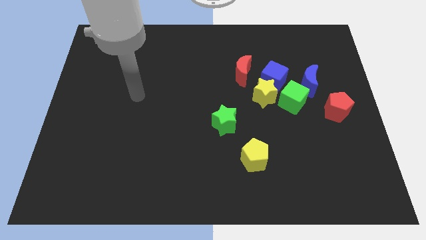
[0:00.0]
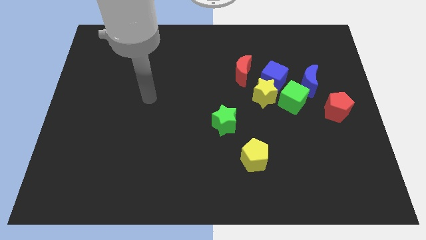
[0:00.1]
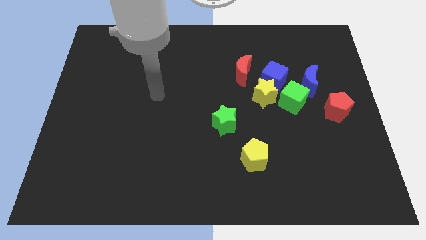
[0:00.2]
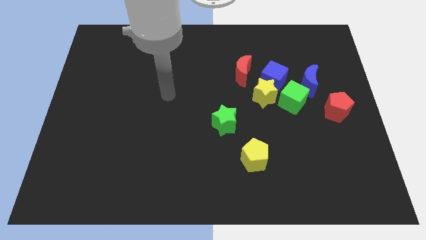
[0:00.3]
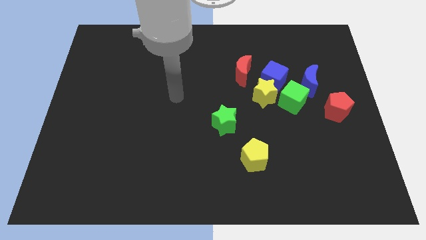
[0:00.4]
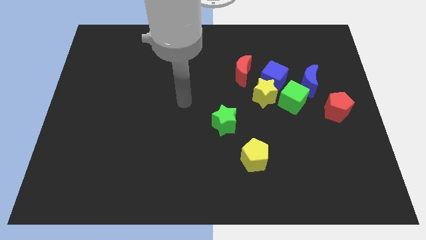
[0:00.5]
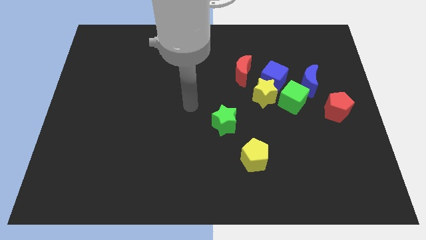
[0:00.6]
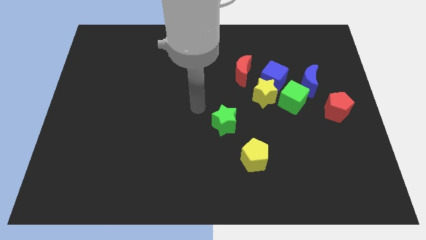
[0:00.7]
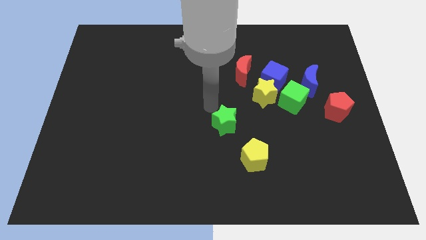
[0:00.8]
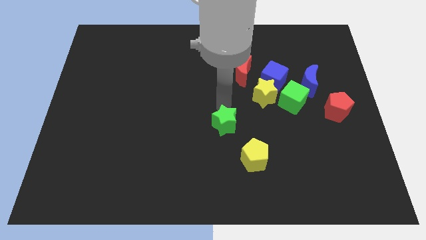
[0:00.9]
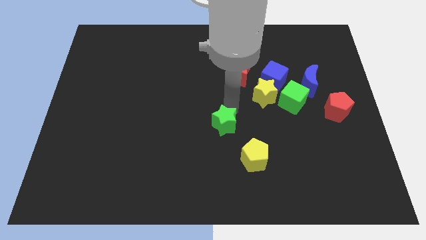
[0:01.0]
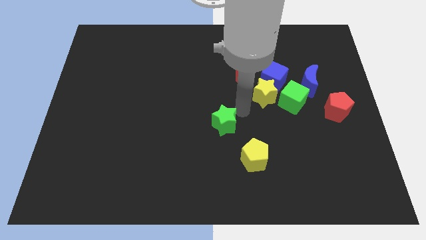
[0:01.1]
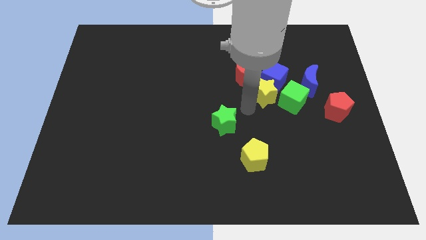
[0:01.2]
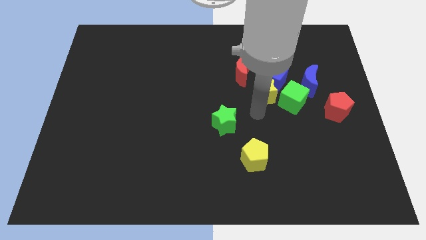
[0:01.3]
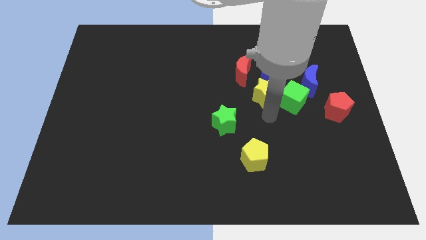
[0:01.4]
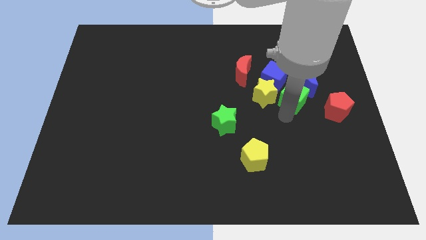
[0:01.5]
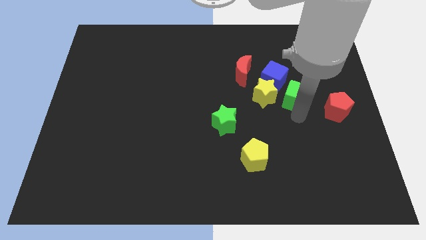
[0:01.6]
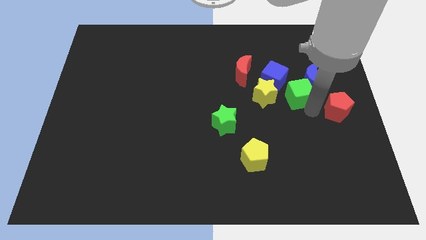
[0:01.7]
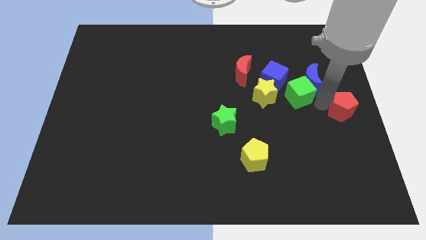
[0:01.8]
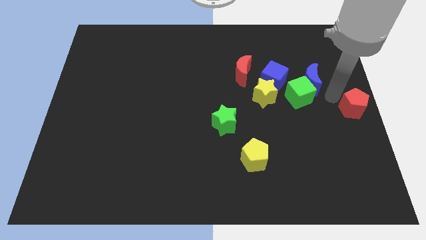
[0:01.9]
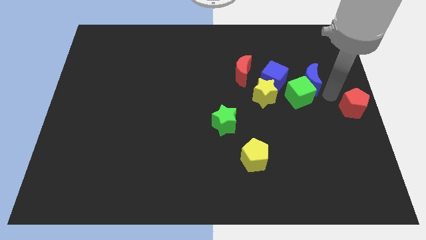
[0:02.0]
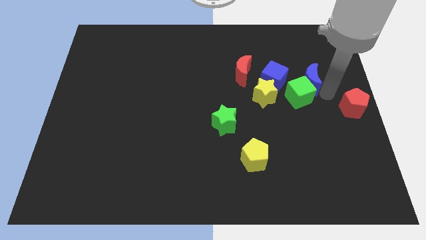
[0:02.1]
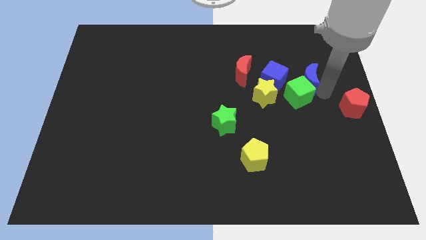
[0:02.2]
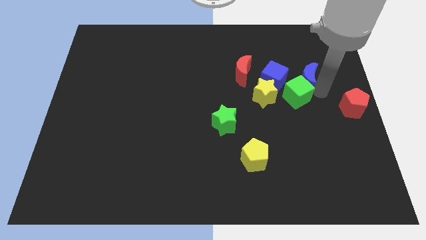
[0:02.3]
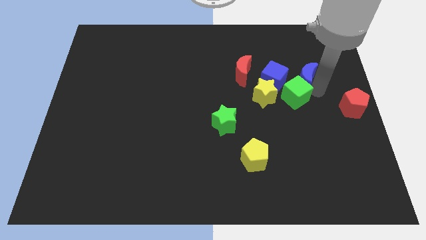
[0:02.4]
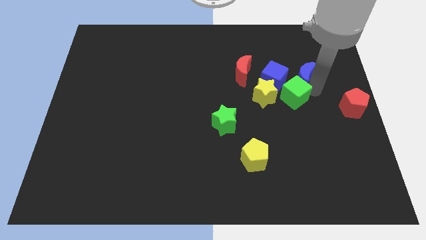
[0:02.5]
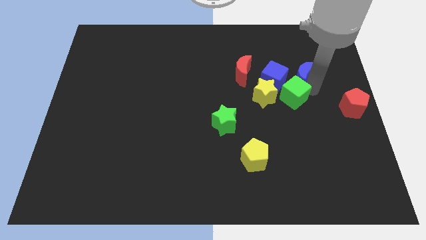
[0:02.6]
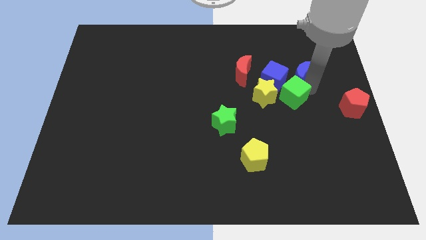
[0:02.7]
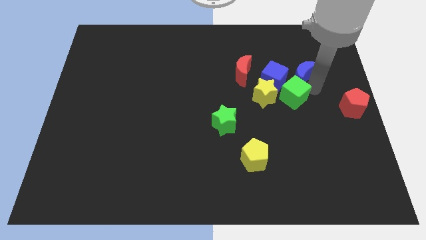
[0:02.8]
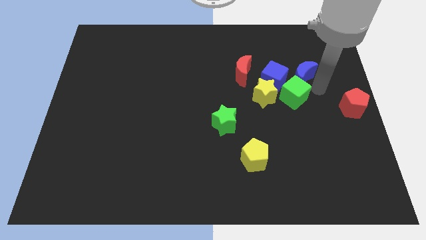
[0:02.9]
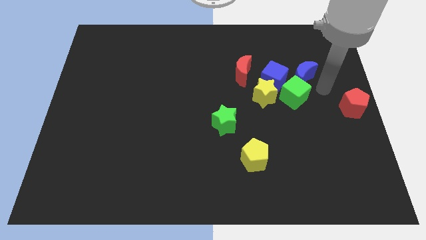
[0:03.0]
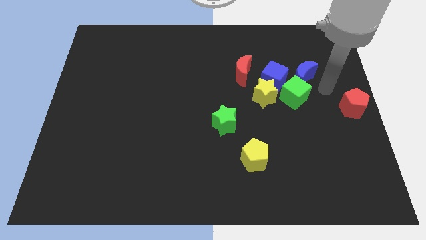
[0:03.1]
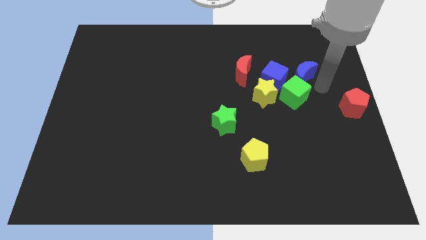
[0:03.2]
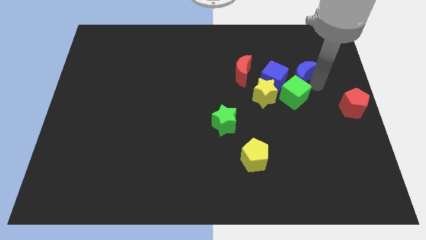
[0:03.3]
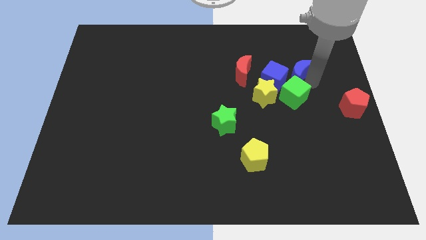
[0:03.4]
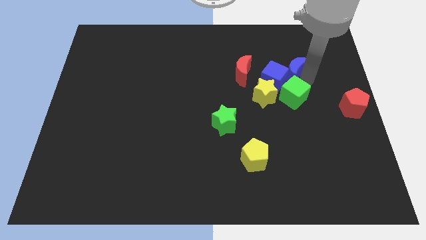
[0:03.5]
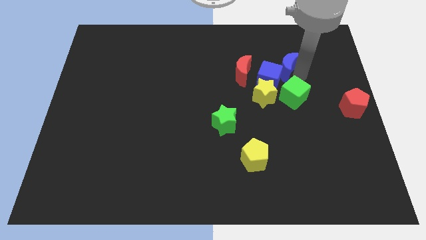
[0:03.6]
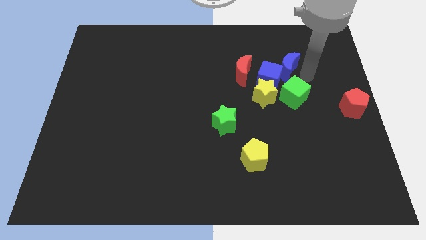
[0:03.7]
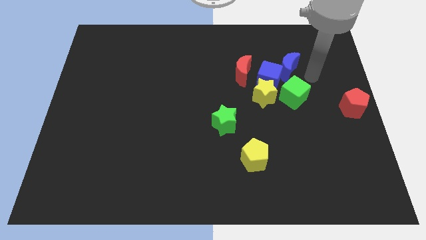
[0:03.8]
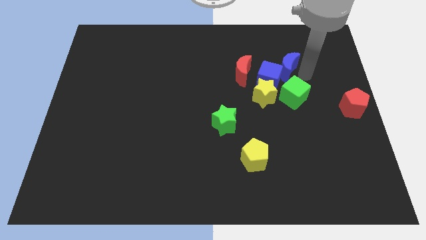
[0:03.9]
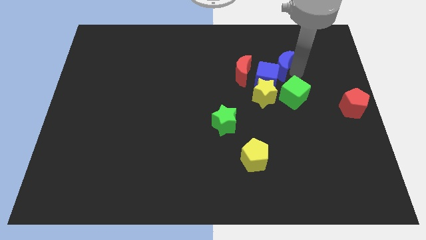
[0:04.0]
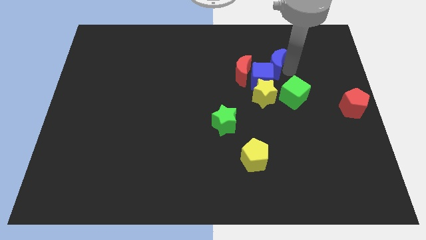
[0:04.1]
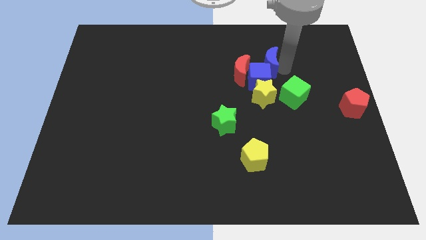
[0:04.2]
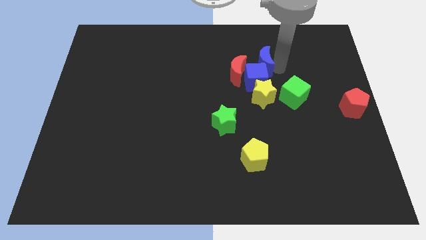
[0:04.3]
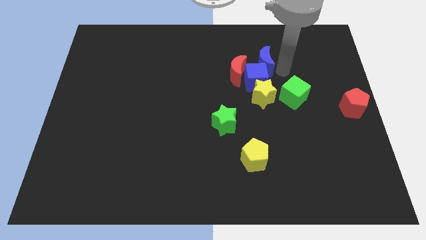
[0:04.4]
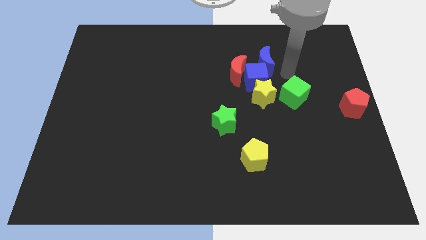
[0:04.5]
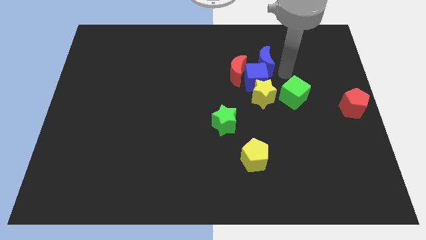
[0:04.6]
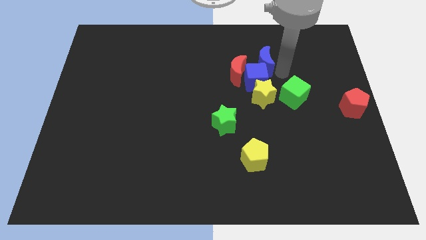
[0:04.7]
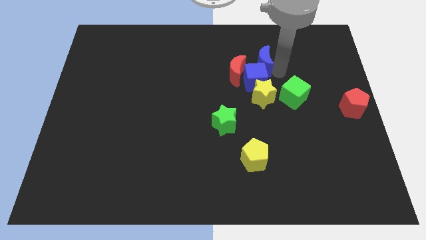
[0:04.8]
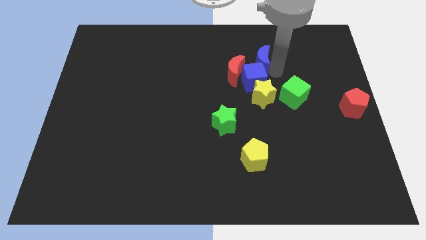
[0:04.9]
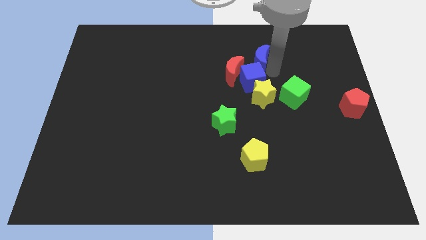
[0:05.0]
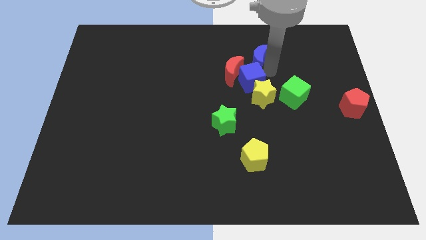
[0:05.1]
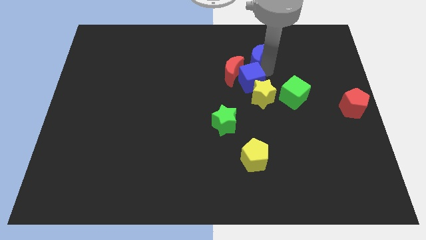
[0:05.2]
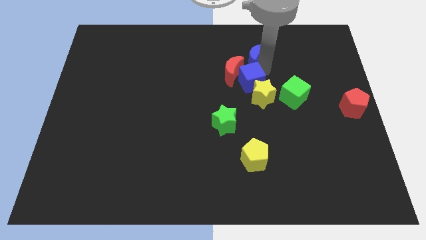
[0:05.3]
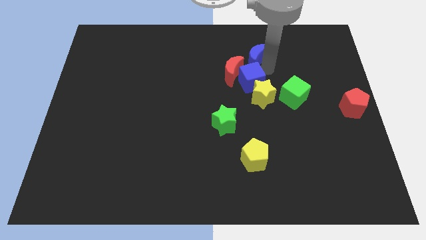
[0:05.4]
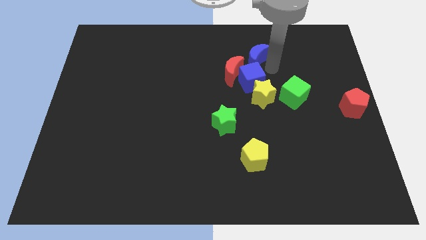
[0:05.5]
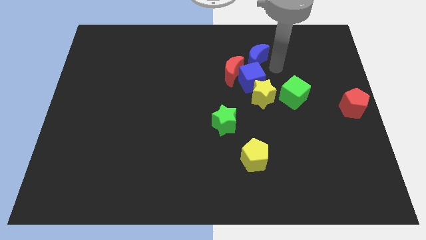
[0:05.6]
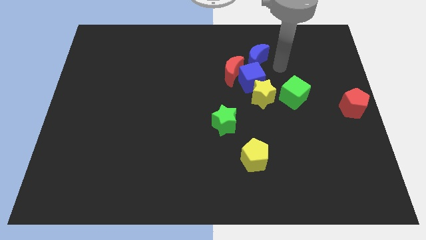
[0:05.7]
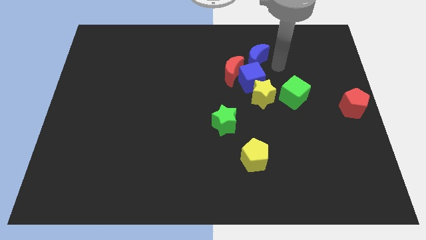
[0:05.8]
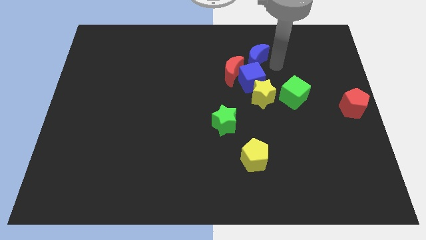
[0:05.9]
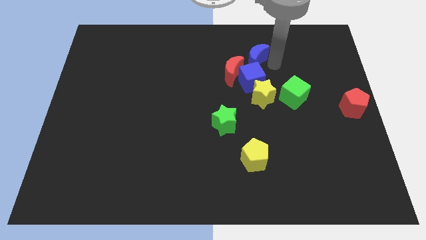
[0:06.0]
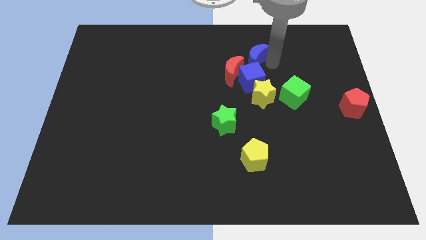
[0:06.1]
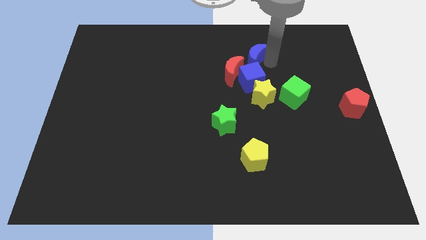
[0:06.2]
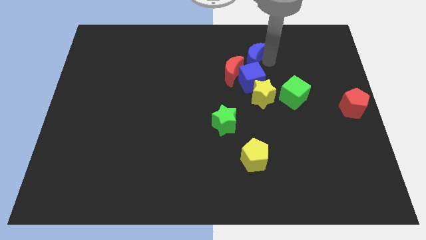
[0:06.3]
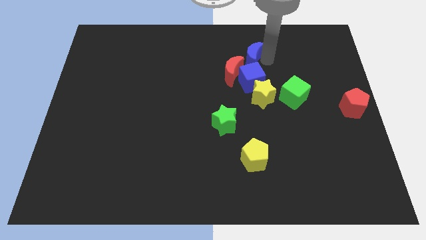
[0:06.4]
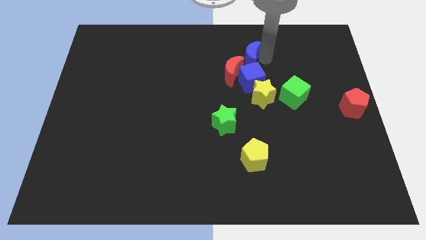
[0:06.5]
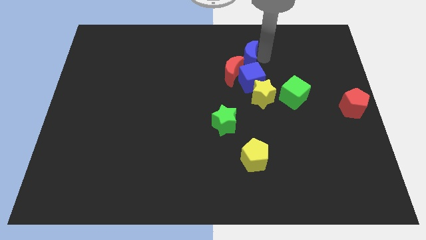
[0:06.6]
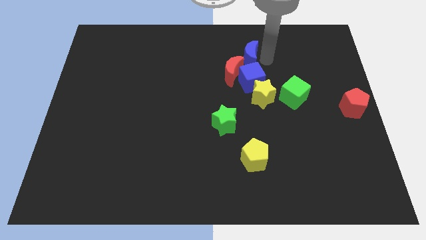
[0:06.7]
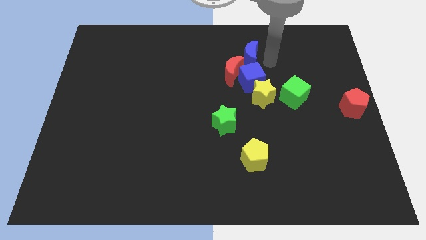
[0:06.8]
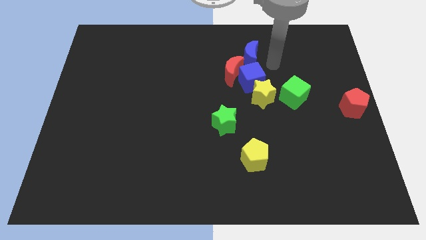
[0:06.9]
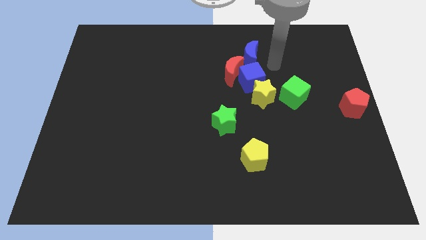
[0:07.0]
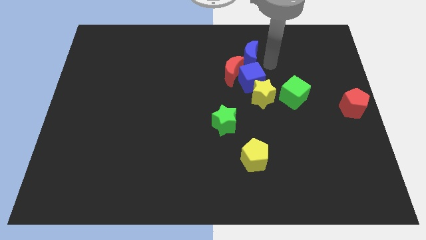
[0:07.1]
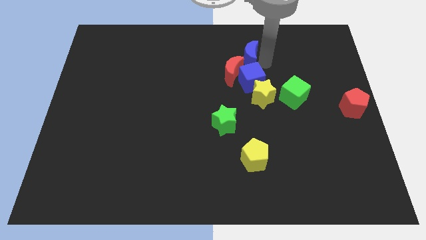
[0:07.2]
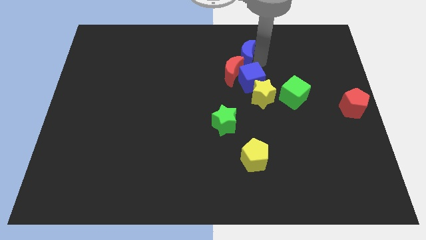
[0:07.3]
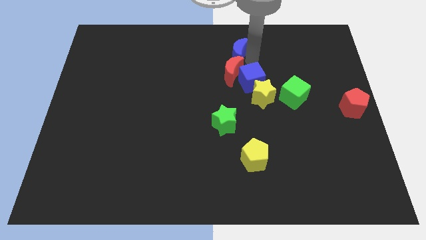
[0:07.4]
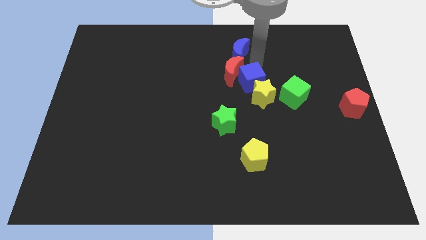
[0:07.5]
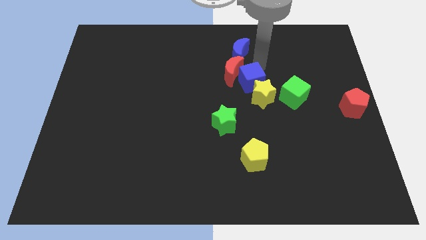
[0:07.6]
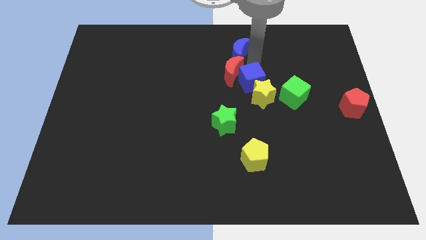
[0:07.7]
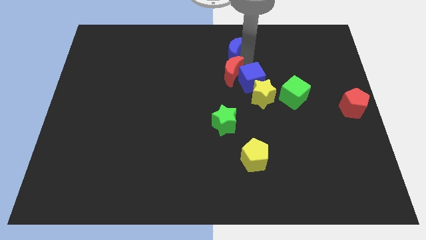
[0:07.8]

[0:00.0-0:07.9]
slide the blue moon to the top
